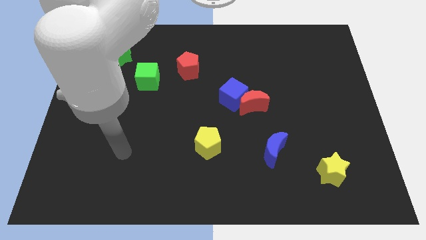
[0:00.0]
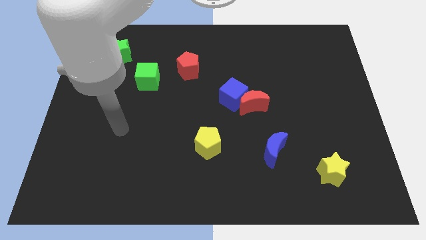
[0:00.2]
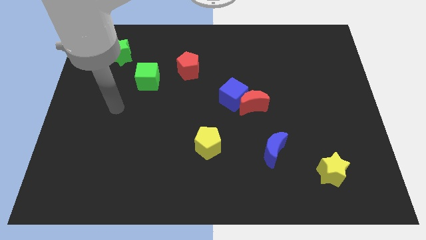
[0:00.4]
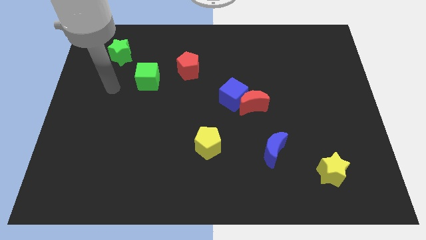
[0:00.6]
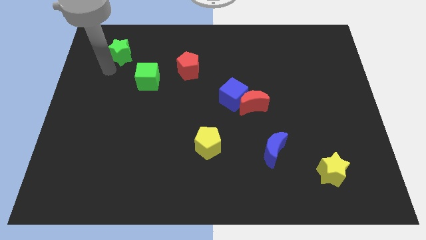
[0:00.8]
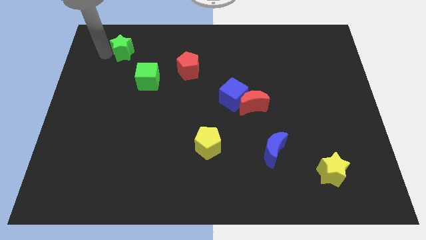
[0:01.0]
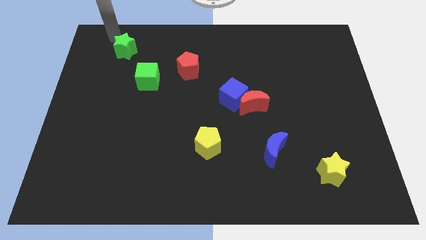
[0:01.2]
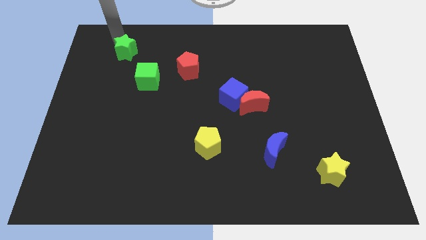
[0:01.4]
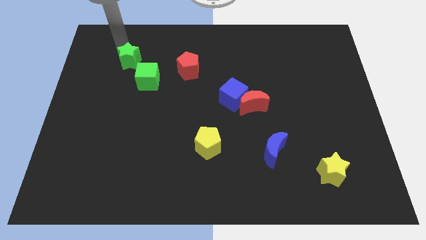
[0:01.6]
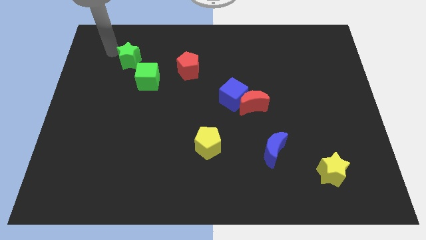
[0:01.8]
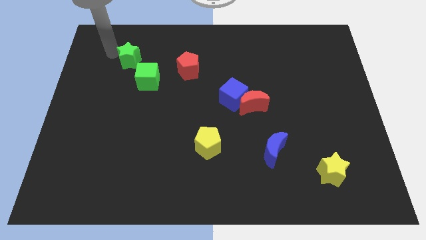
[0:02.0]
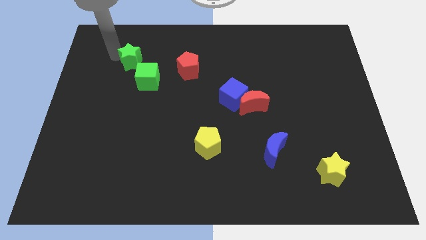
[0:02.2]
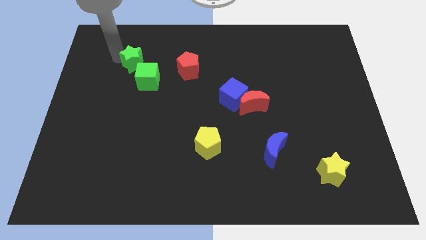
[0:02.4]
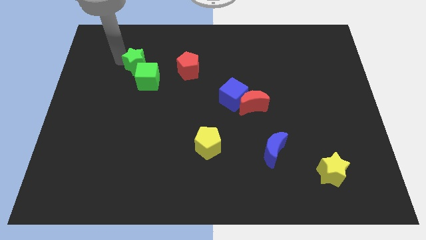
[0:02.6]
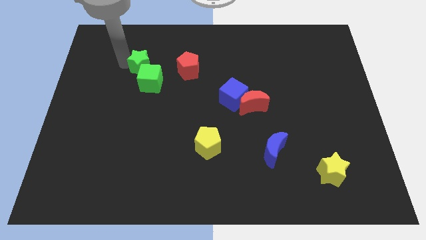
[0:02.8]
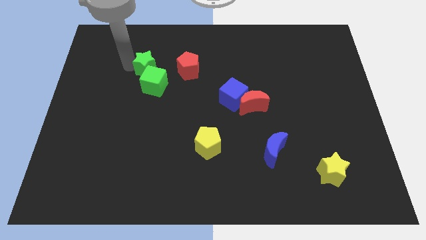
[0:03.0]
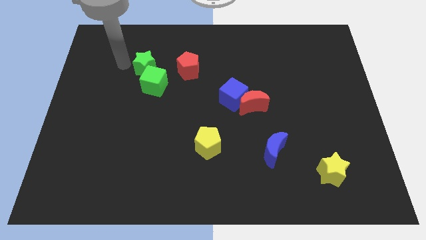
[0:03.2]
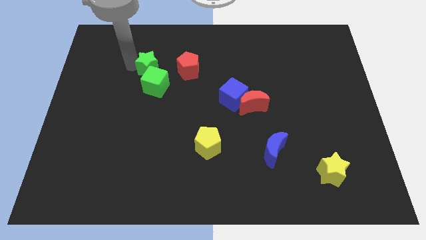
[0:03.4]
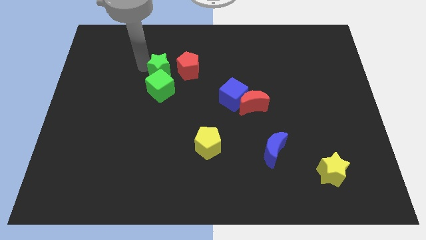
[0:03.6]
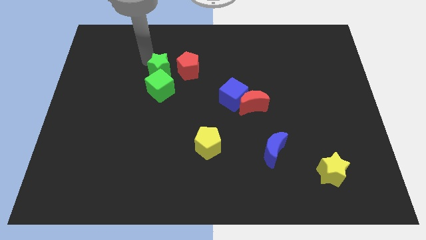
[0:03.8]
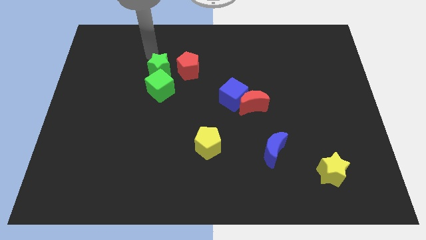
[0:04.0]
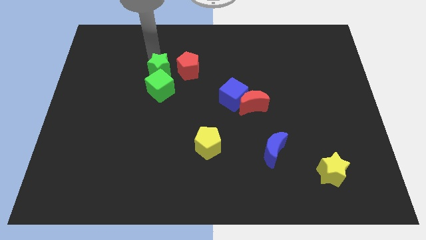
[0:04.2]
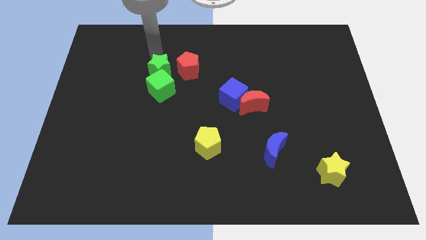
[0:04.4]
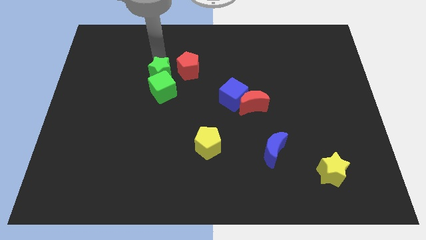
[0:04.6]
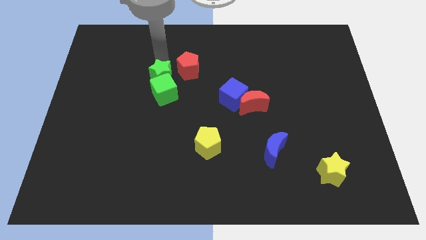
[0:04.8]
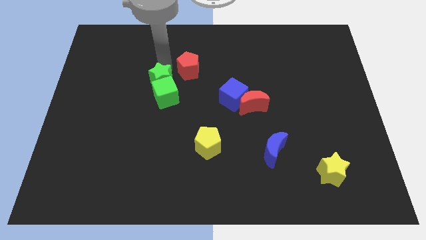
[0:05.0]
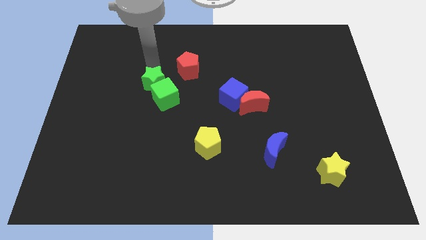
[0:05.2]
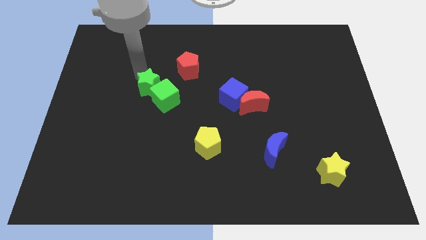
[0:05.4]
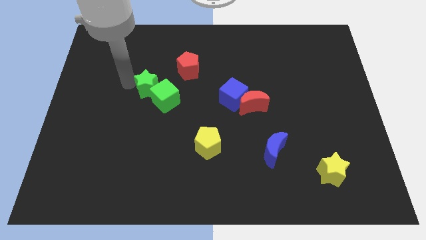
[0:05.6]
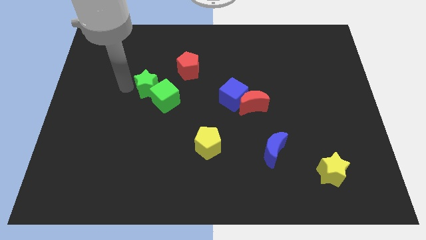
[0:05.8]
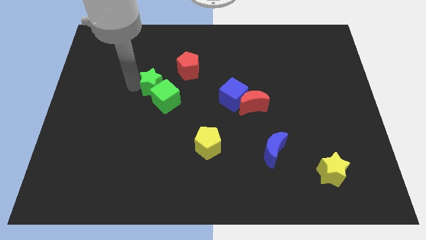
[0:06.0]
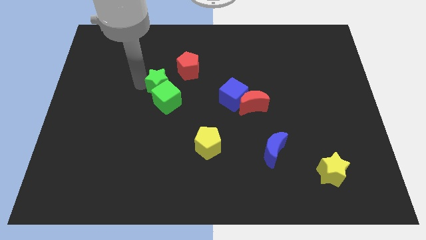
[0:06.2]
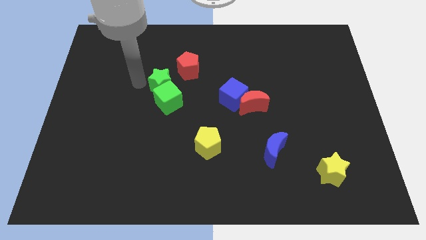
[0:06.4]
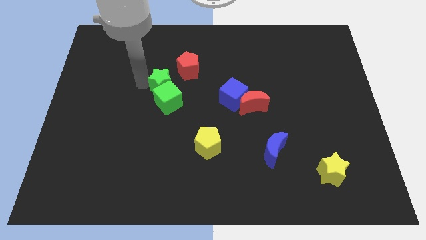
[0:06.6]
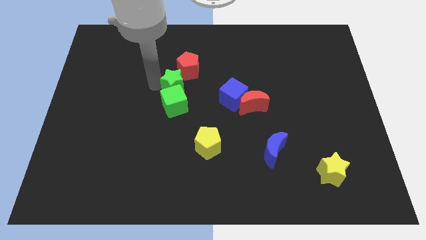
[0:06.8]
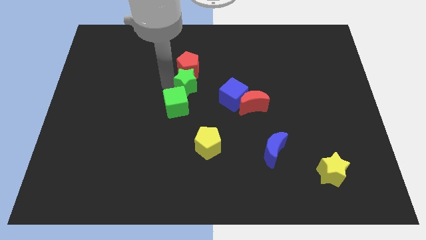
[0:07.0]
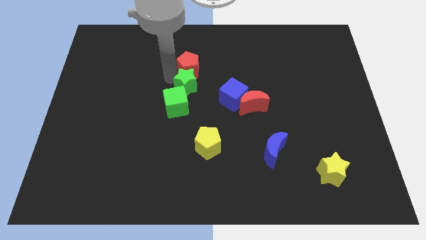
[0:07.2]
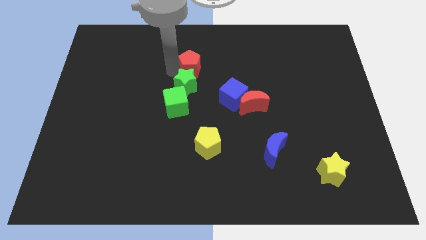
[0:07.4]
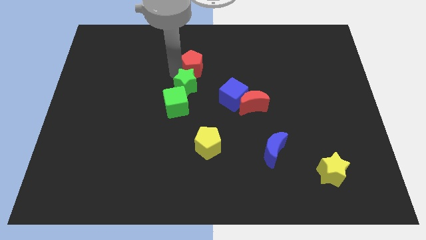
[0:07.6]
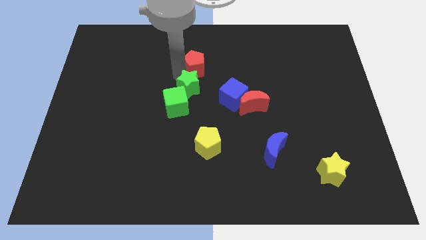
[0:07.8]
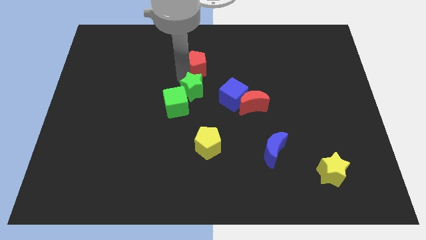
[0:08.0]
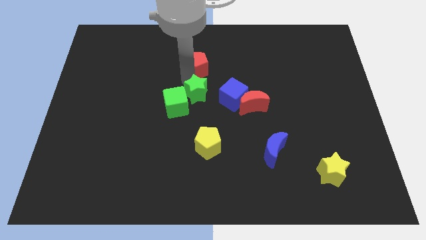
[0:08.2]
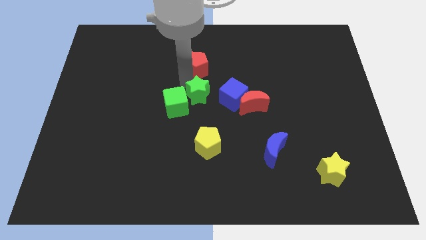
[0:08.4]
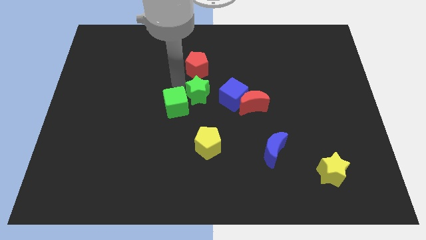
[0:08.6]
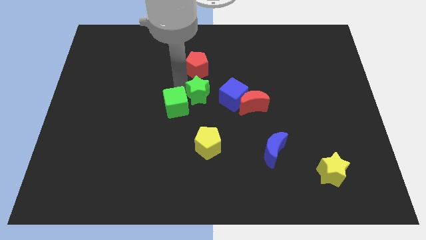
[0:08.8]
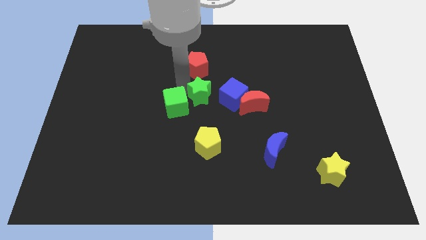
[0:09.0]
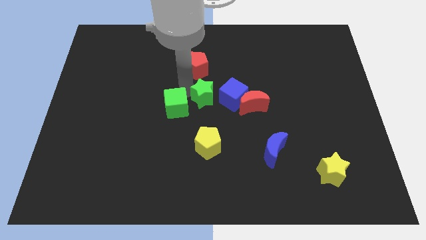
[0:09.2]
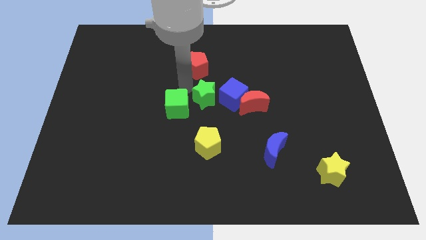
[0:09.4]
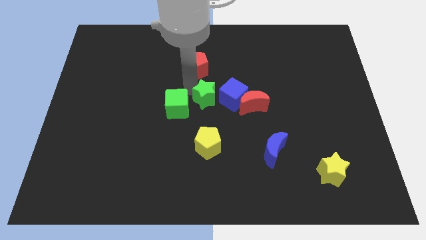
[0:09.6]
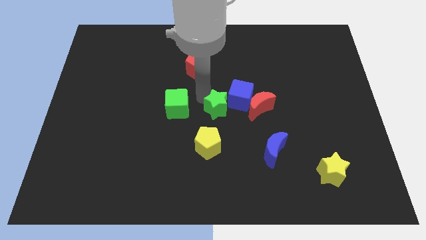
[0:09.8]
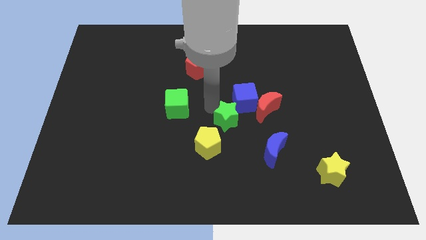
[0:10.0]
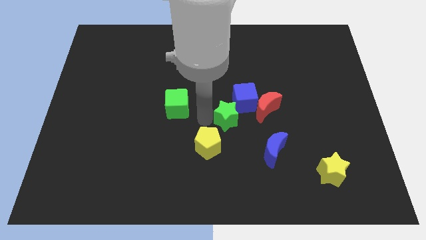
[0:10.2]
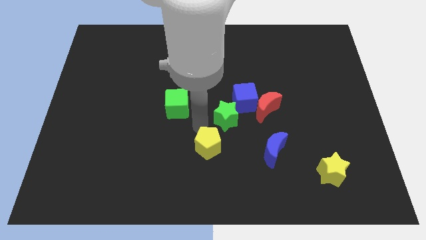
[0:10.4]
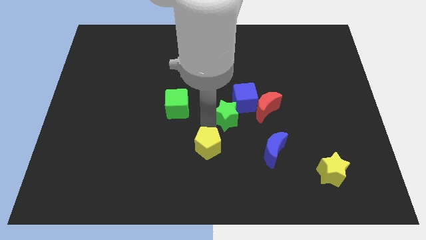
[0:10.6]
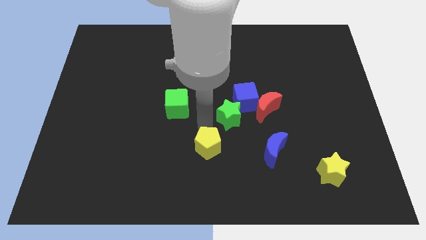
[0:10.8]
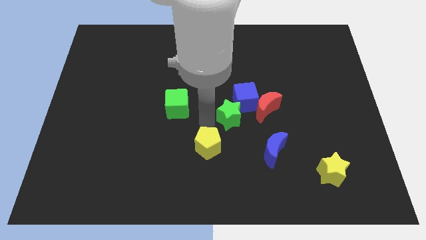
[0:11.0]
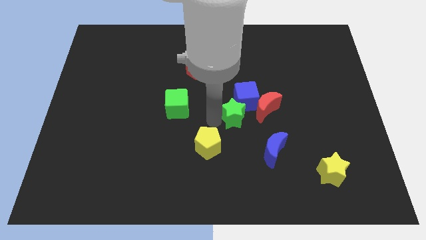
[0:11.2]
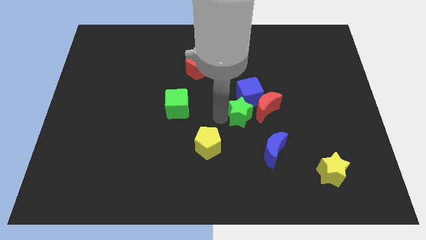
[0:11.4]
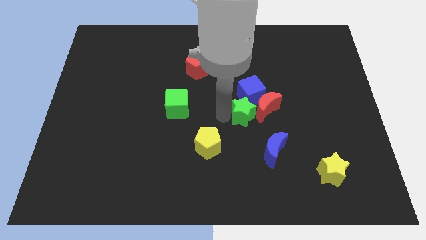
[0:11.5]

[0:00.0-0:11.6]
slide the green star to the red moon
